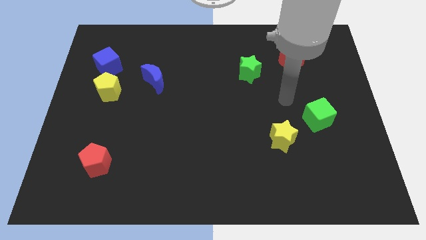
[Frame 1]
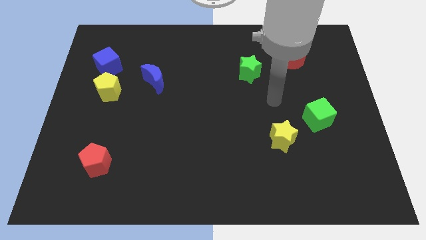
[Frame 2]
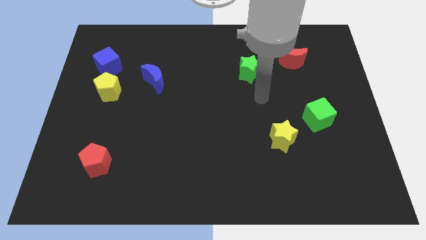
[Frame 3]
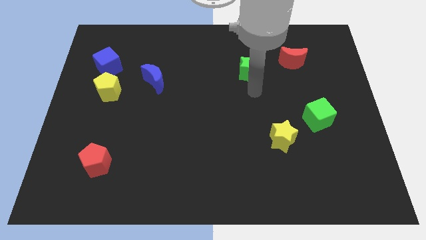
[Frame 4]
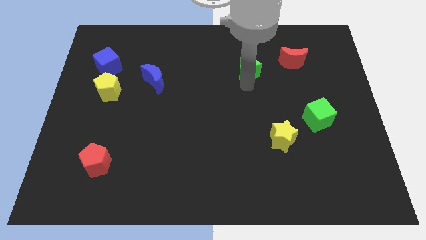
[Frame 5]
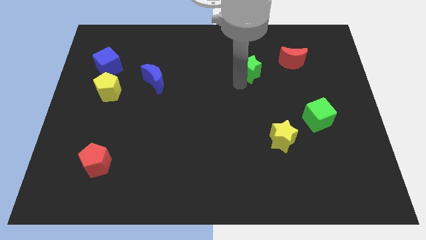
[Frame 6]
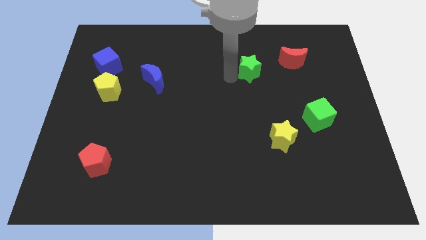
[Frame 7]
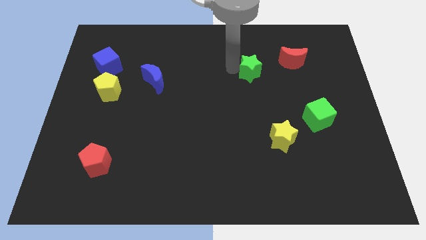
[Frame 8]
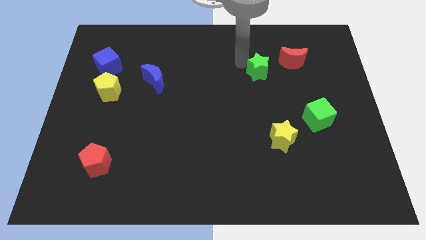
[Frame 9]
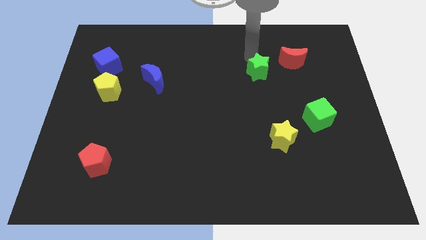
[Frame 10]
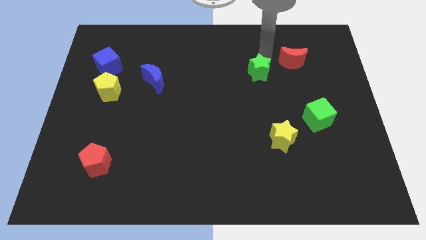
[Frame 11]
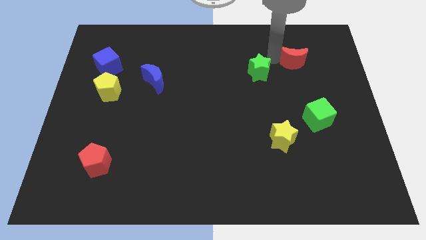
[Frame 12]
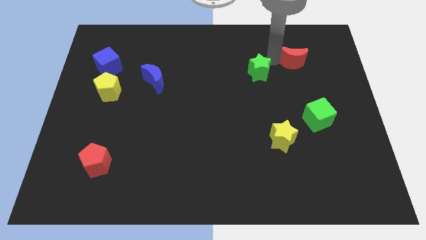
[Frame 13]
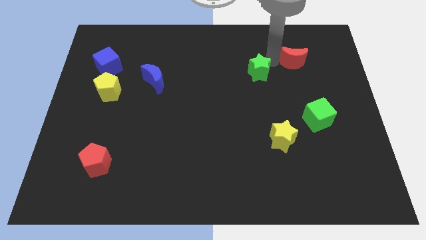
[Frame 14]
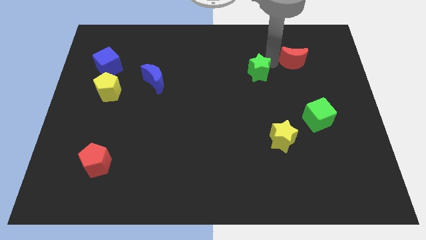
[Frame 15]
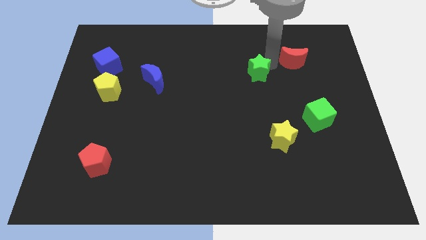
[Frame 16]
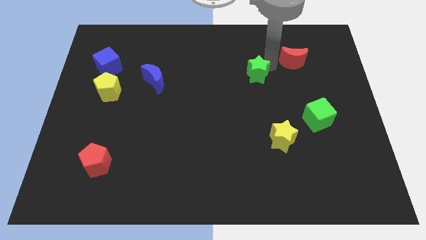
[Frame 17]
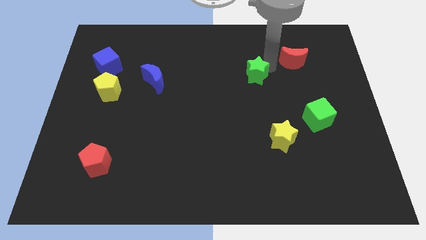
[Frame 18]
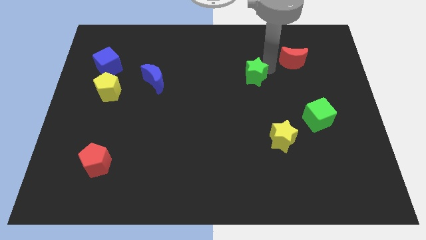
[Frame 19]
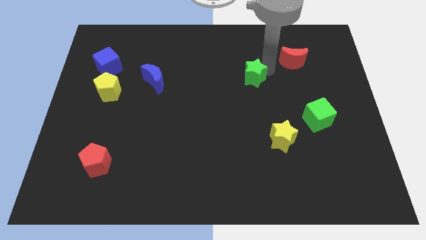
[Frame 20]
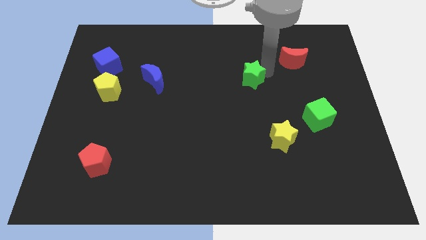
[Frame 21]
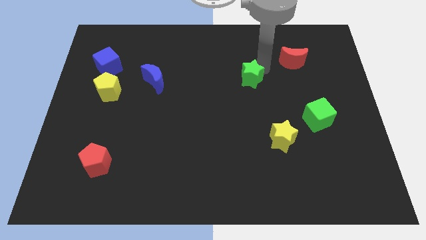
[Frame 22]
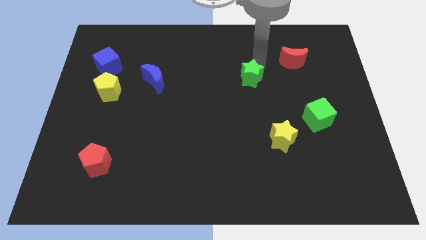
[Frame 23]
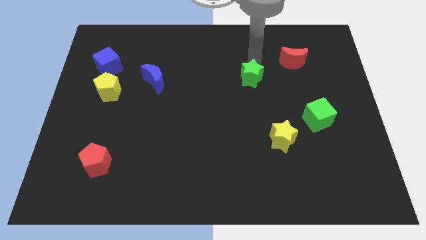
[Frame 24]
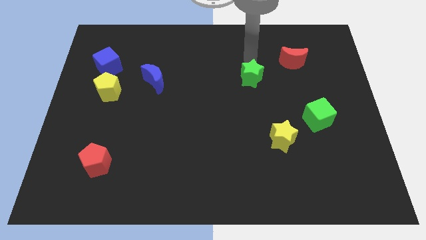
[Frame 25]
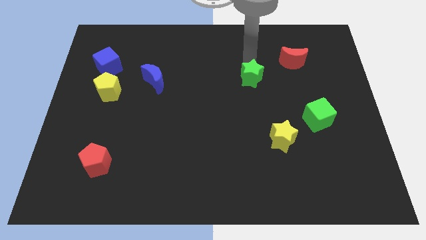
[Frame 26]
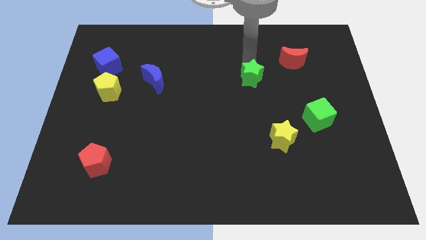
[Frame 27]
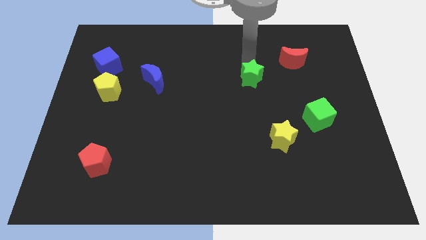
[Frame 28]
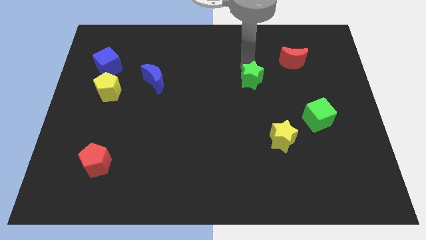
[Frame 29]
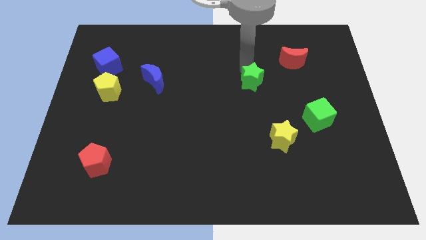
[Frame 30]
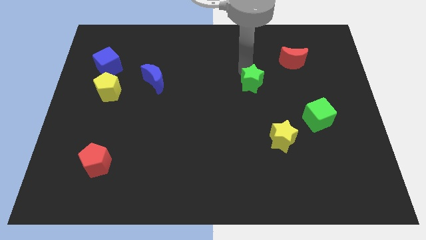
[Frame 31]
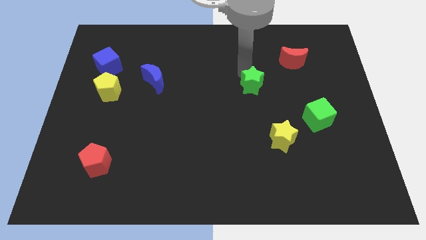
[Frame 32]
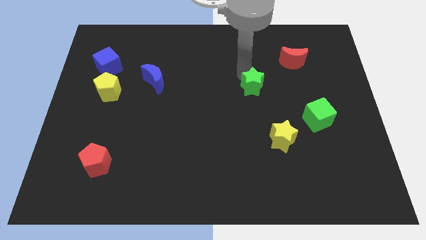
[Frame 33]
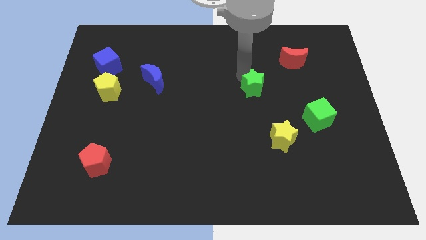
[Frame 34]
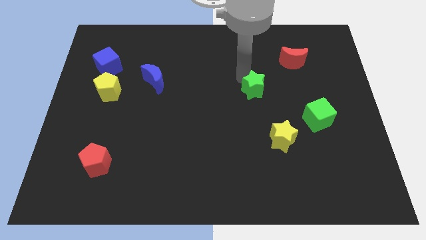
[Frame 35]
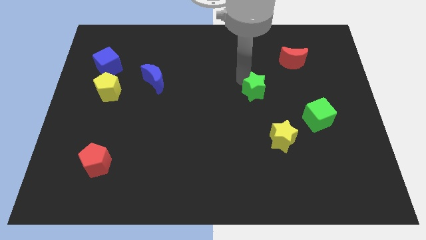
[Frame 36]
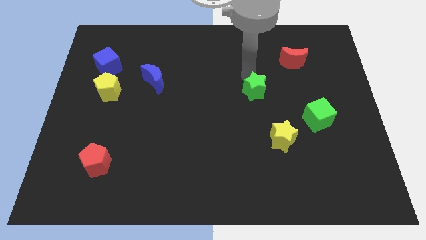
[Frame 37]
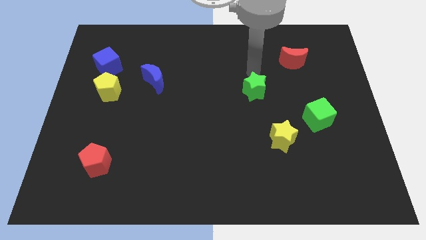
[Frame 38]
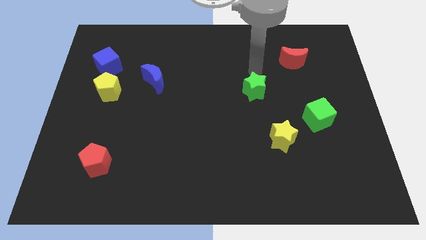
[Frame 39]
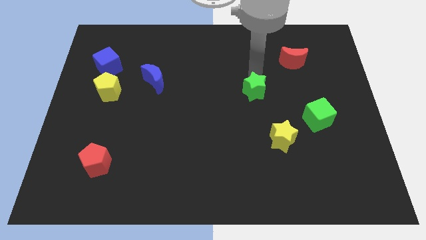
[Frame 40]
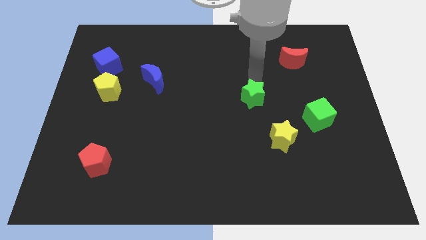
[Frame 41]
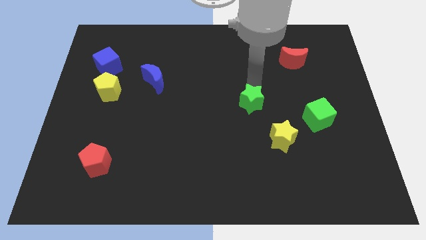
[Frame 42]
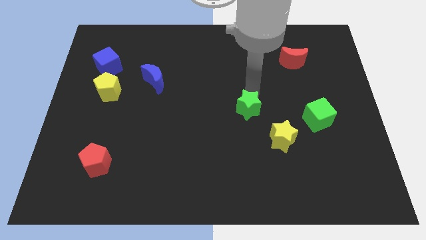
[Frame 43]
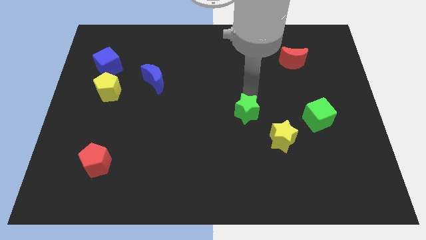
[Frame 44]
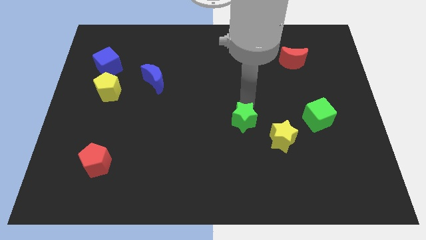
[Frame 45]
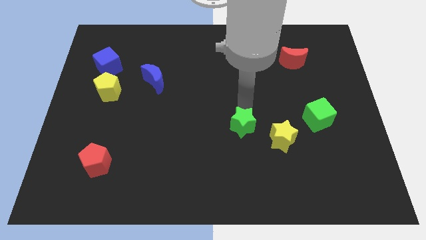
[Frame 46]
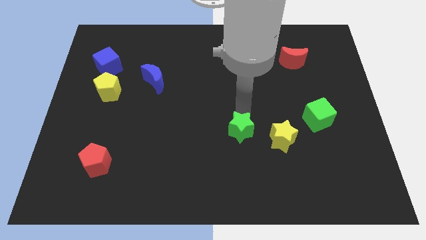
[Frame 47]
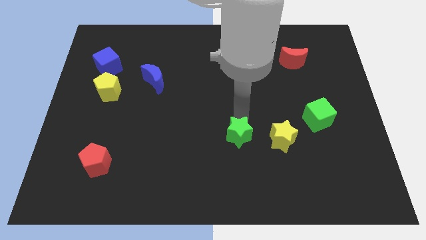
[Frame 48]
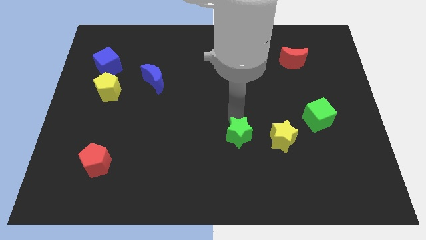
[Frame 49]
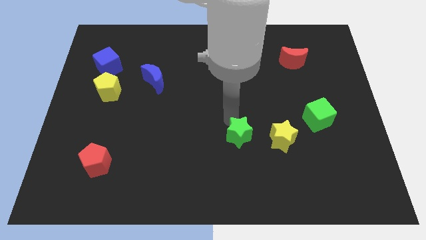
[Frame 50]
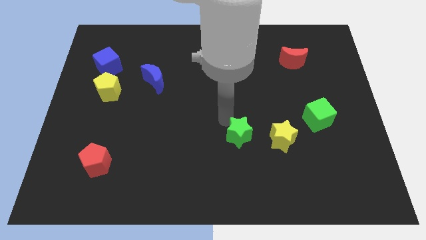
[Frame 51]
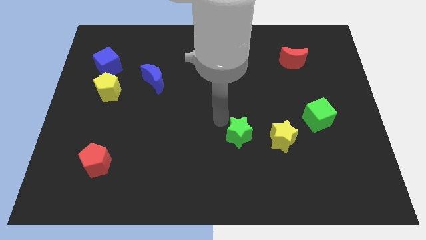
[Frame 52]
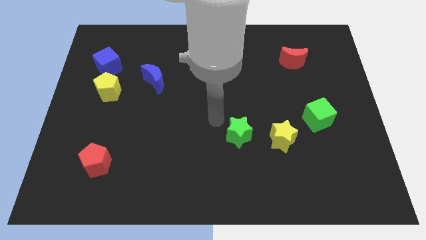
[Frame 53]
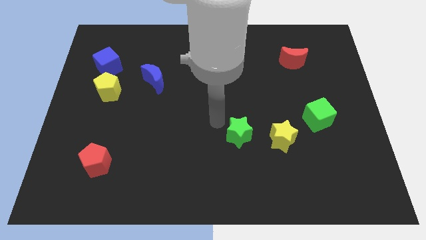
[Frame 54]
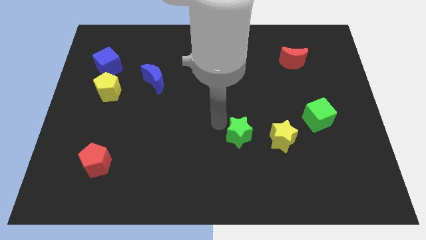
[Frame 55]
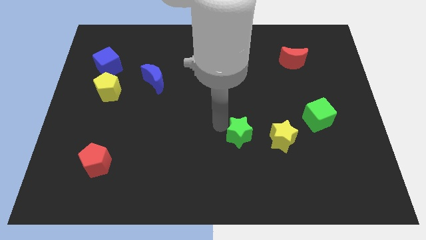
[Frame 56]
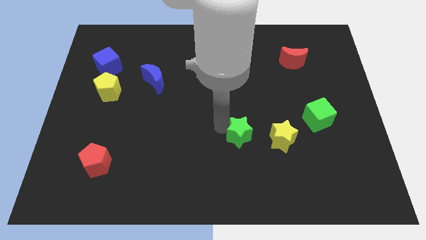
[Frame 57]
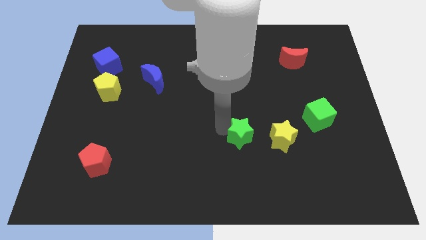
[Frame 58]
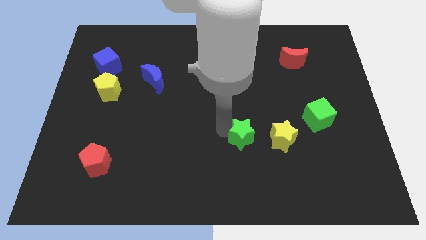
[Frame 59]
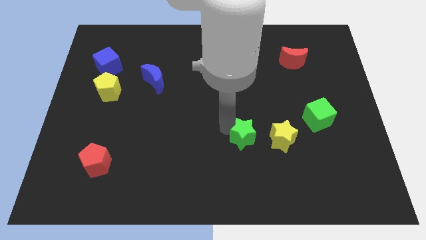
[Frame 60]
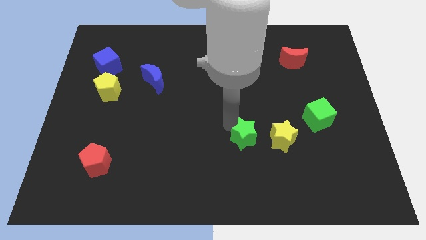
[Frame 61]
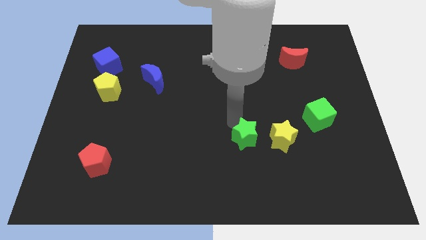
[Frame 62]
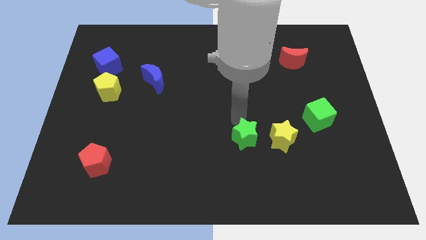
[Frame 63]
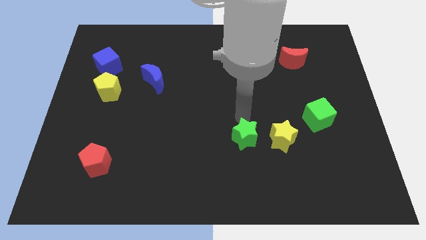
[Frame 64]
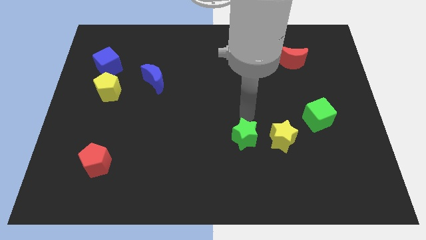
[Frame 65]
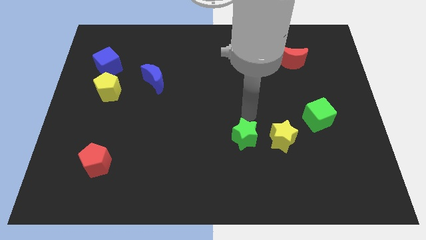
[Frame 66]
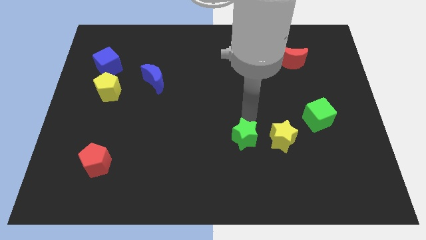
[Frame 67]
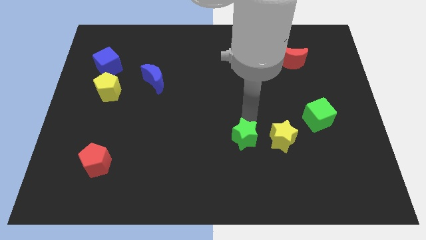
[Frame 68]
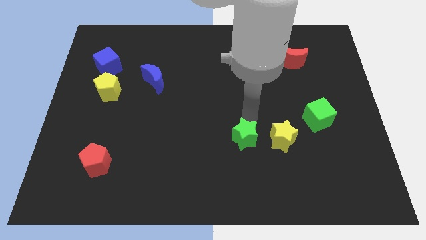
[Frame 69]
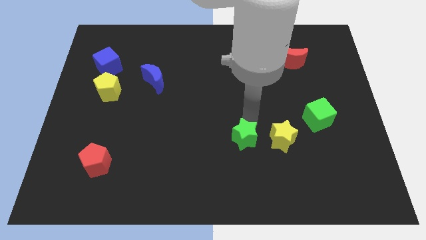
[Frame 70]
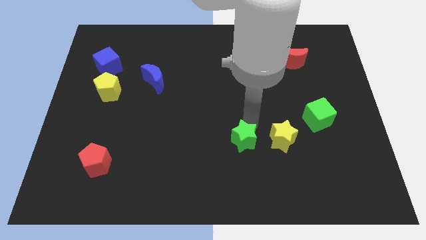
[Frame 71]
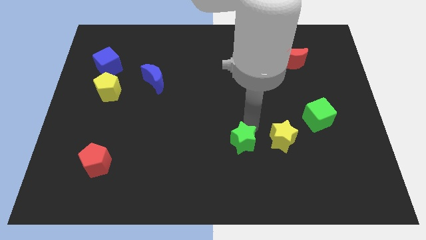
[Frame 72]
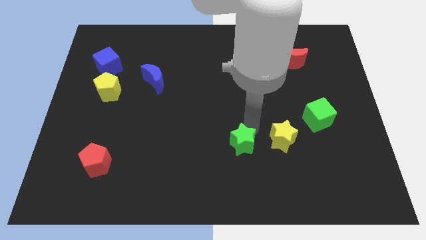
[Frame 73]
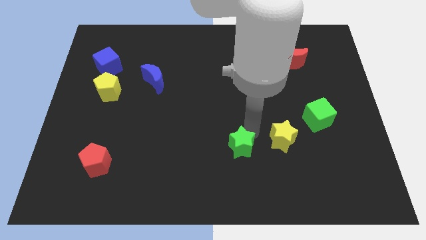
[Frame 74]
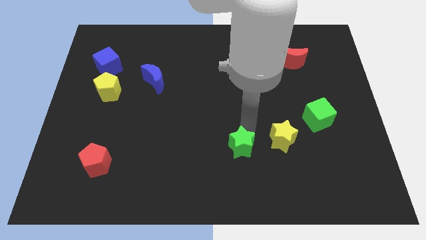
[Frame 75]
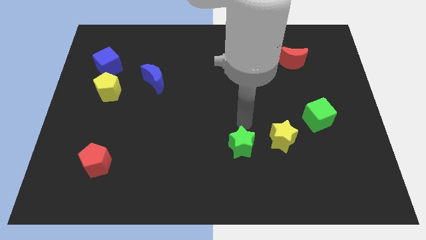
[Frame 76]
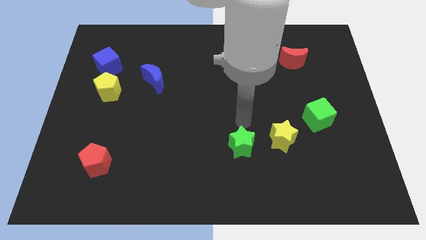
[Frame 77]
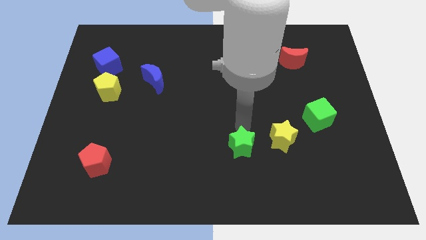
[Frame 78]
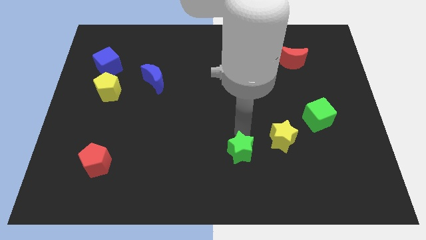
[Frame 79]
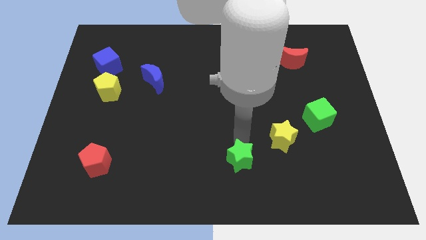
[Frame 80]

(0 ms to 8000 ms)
put the green star to the bottom side
